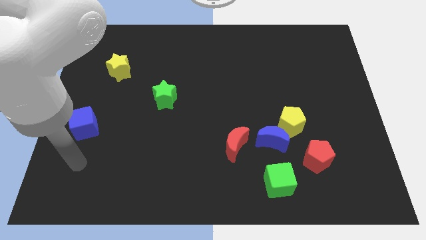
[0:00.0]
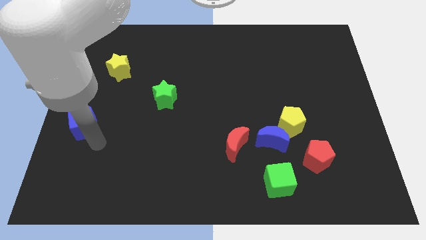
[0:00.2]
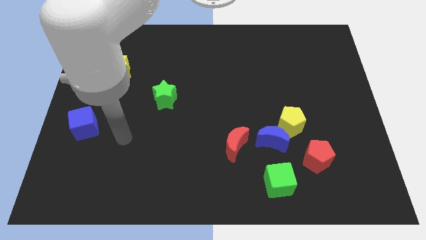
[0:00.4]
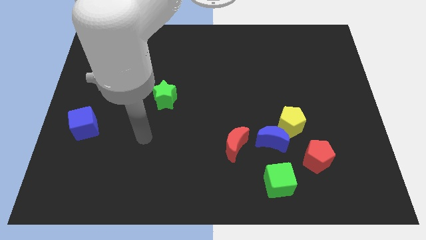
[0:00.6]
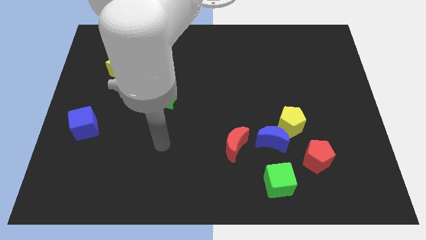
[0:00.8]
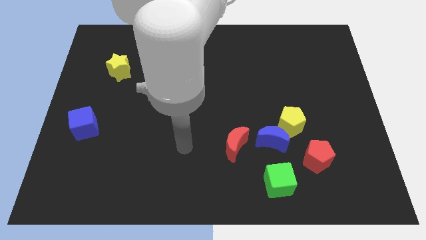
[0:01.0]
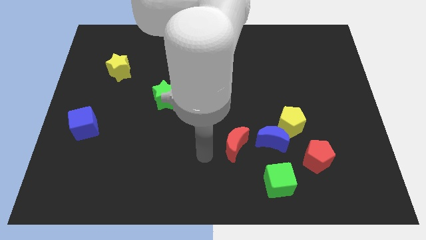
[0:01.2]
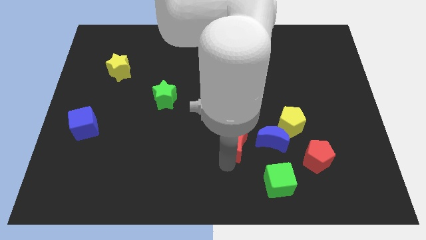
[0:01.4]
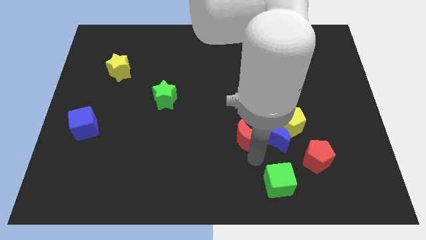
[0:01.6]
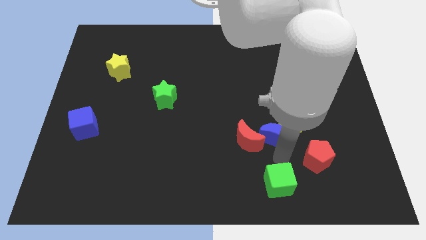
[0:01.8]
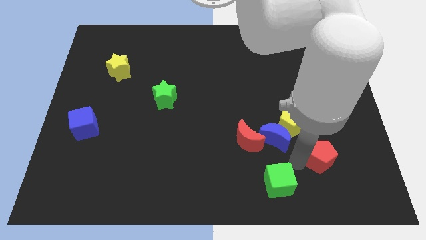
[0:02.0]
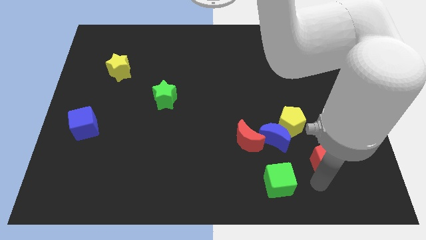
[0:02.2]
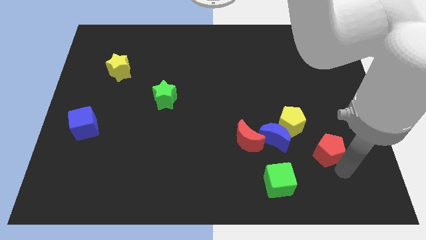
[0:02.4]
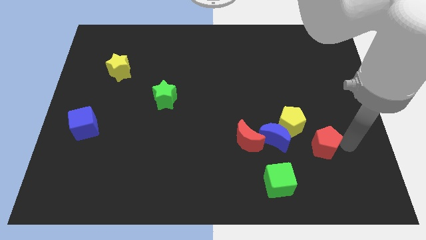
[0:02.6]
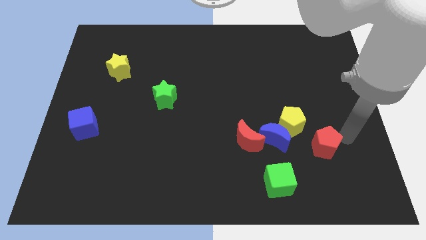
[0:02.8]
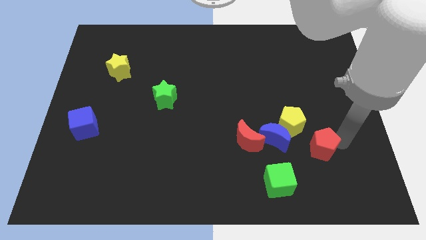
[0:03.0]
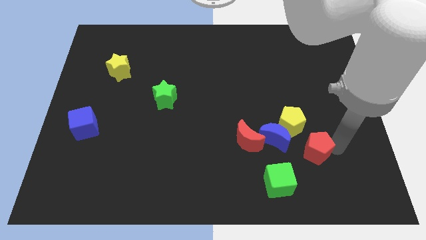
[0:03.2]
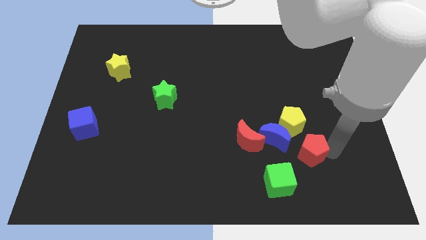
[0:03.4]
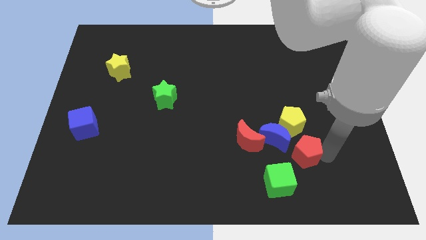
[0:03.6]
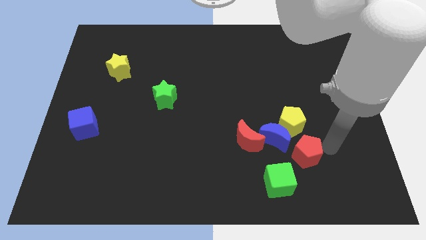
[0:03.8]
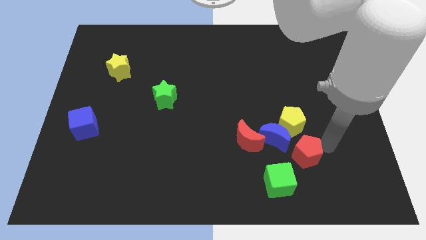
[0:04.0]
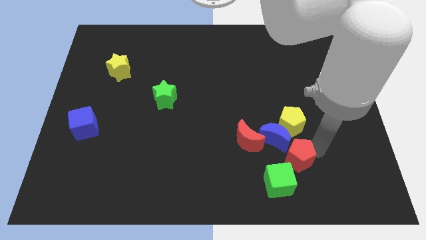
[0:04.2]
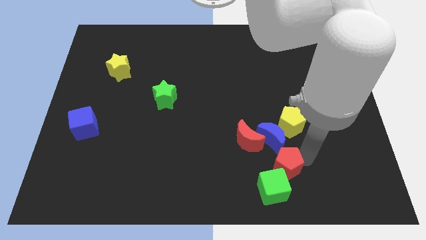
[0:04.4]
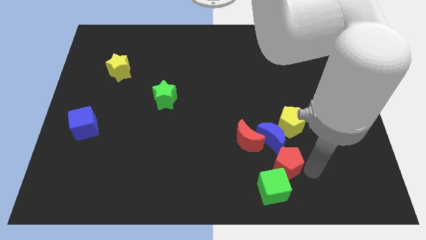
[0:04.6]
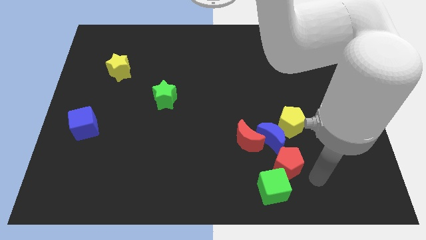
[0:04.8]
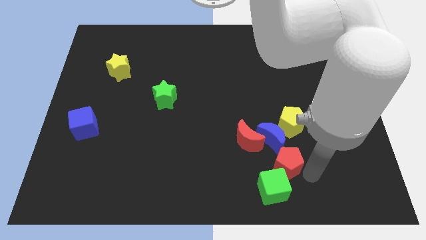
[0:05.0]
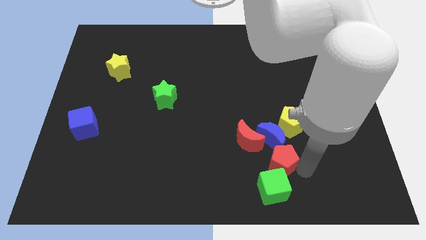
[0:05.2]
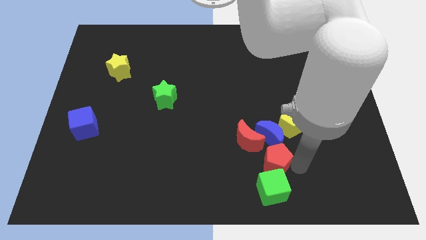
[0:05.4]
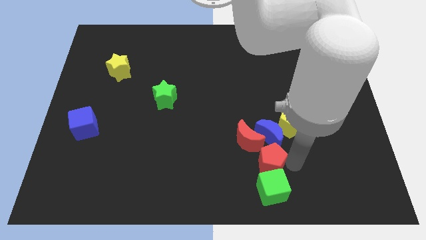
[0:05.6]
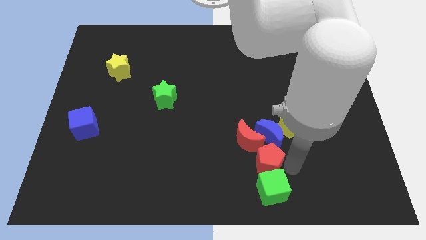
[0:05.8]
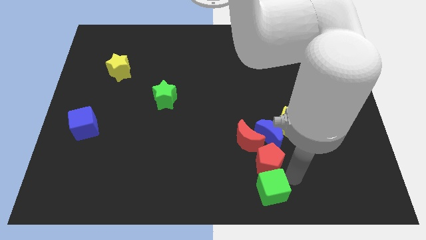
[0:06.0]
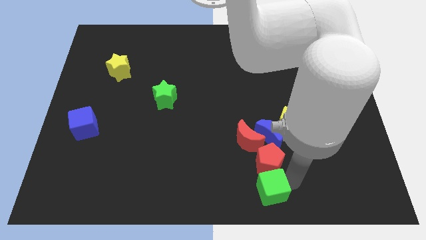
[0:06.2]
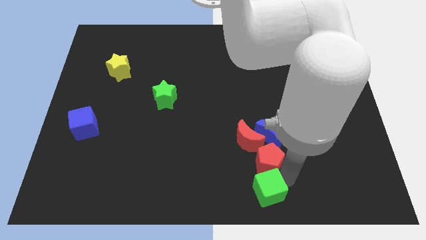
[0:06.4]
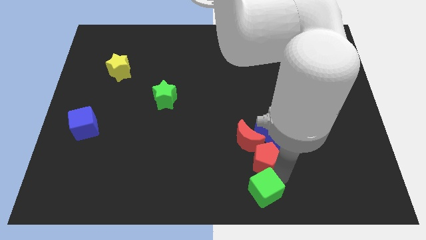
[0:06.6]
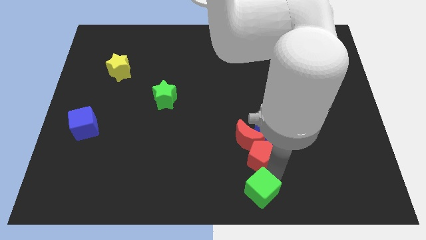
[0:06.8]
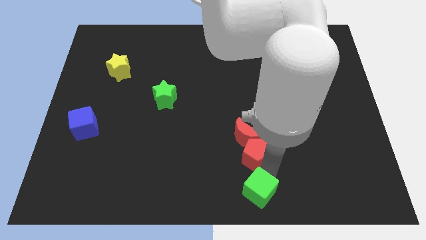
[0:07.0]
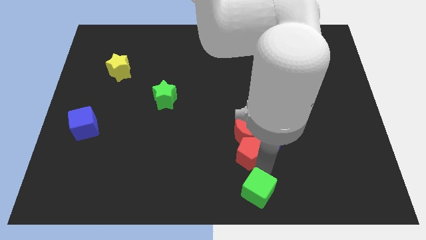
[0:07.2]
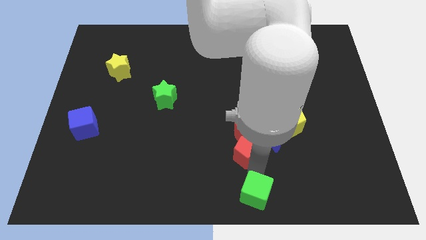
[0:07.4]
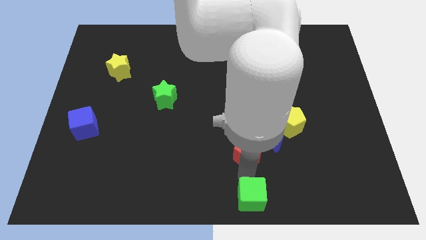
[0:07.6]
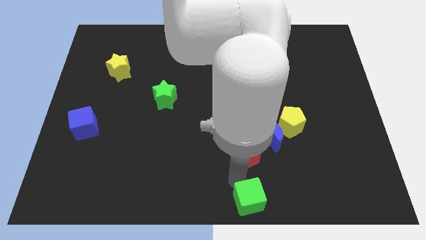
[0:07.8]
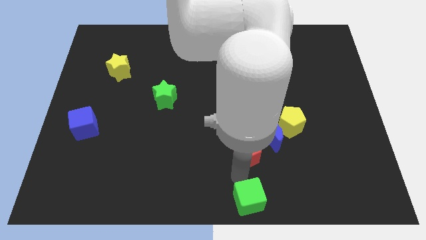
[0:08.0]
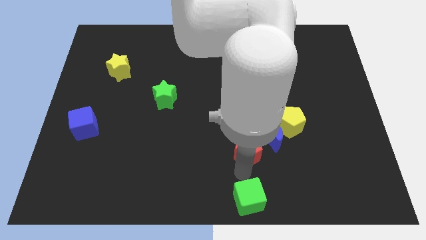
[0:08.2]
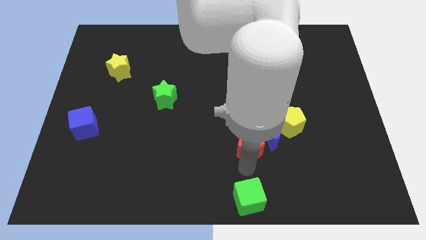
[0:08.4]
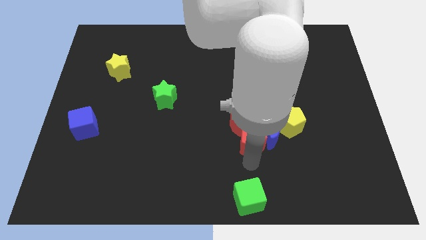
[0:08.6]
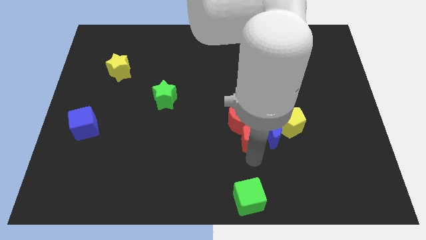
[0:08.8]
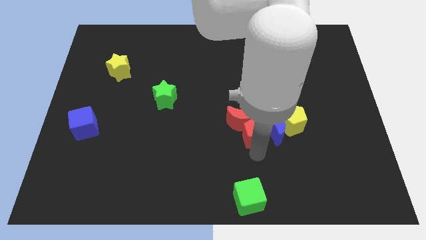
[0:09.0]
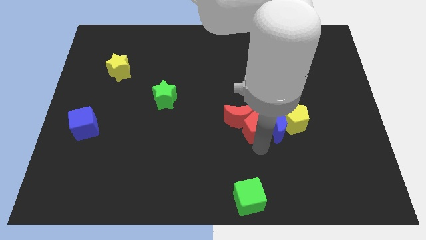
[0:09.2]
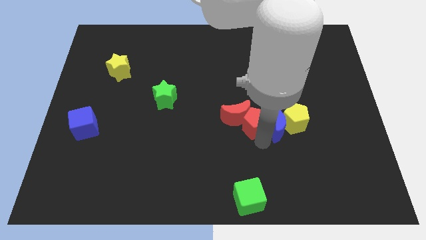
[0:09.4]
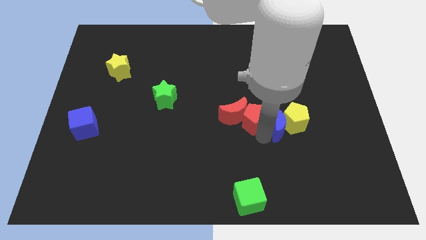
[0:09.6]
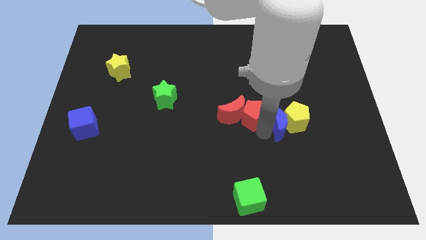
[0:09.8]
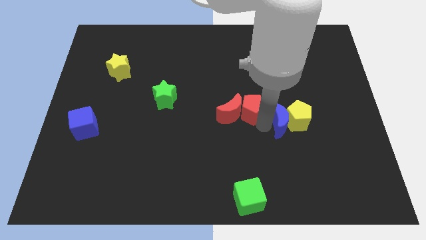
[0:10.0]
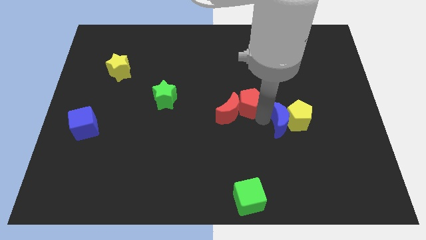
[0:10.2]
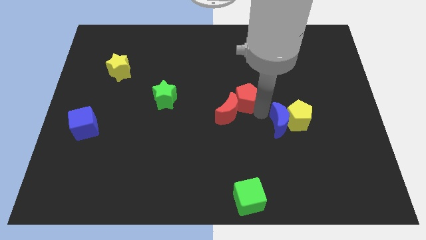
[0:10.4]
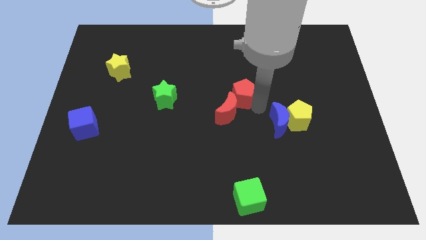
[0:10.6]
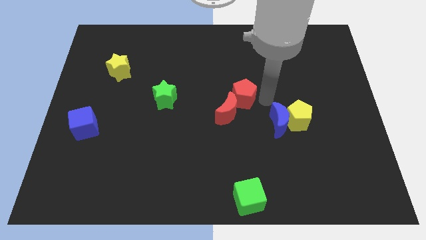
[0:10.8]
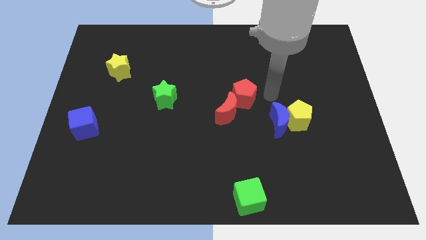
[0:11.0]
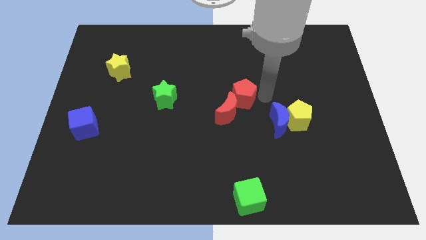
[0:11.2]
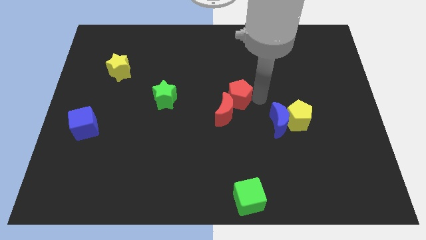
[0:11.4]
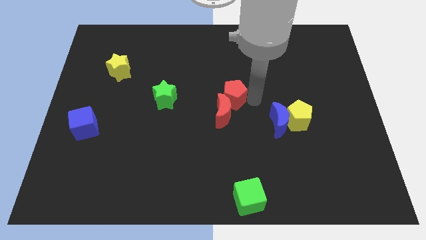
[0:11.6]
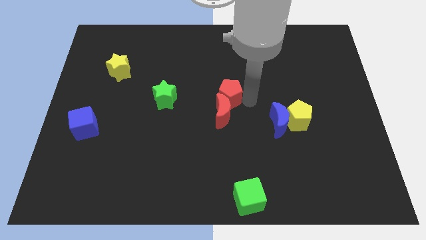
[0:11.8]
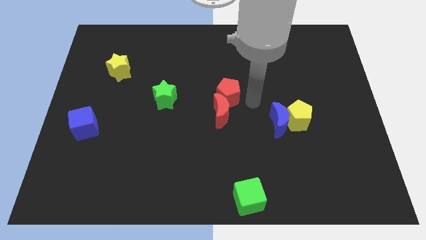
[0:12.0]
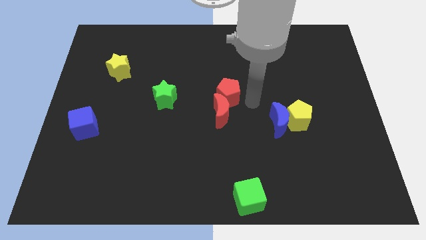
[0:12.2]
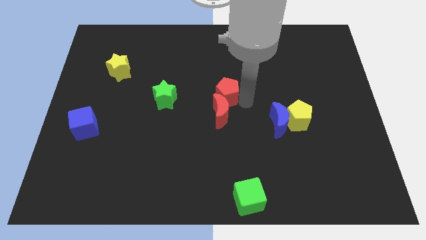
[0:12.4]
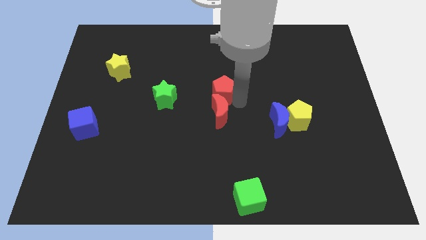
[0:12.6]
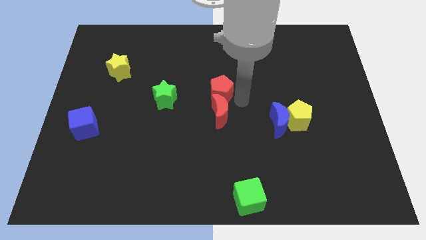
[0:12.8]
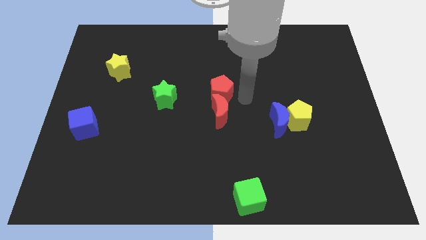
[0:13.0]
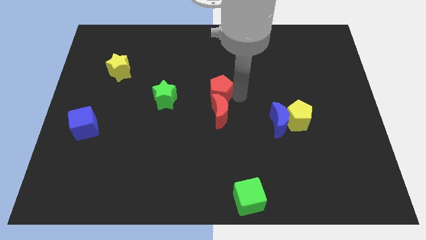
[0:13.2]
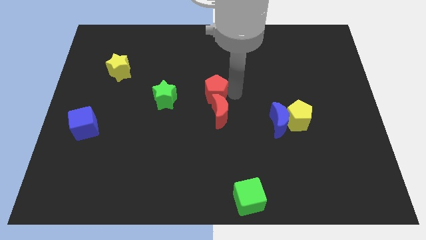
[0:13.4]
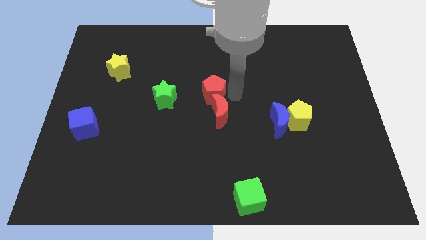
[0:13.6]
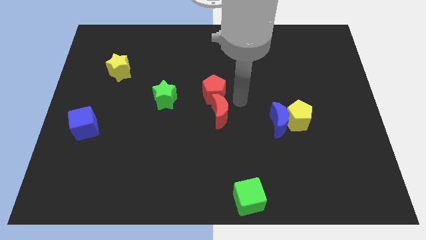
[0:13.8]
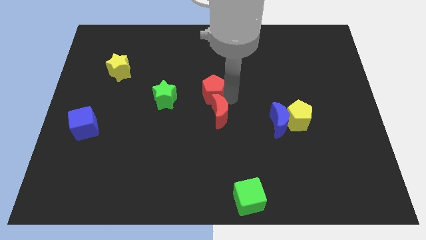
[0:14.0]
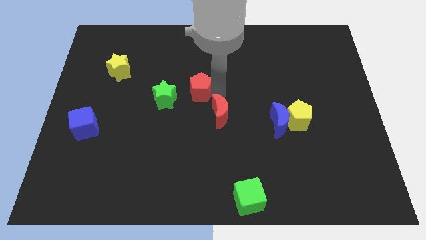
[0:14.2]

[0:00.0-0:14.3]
push the red pentagon diagonally up and to the right of the green star
